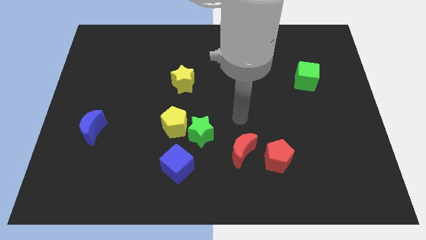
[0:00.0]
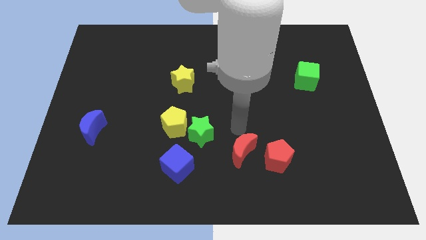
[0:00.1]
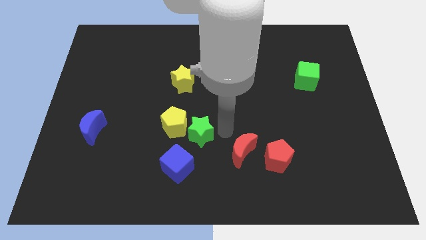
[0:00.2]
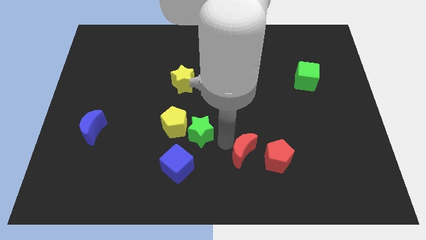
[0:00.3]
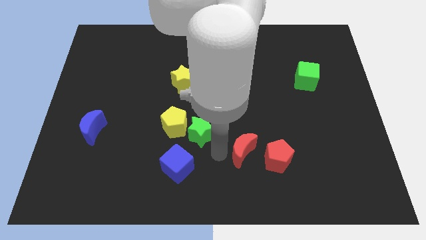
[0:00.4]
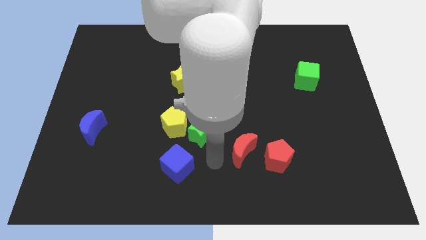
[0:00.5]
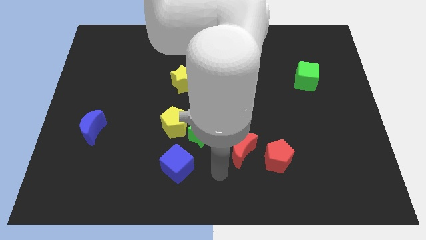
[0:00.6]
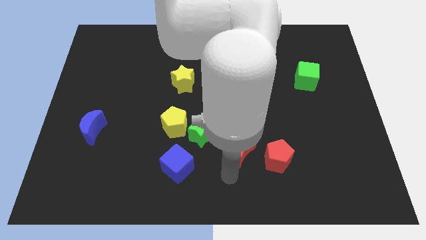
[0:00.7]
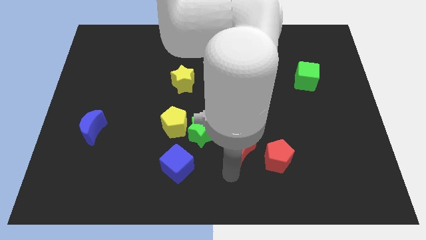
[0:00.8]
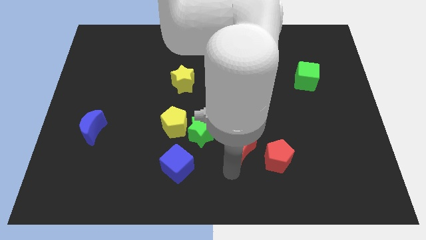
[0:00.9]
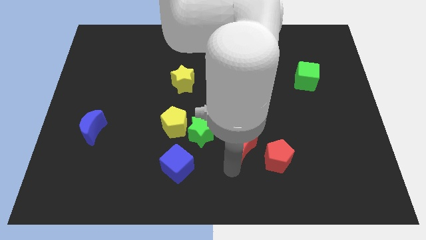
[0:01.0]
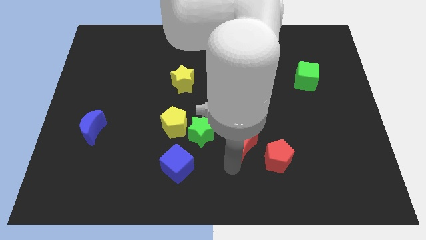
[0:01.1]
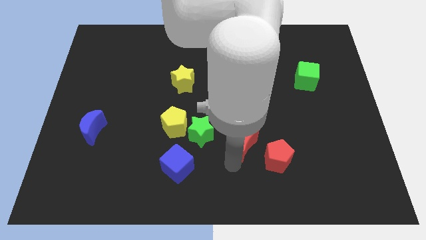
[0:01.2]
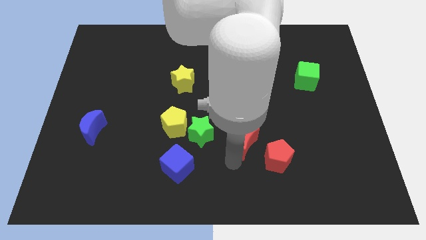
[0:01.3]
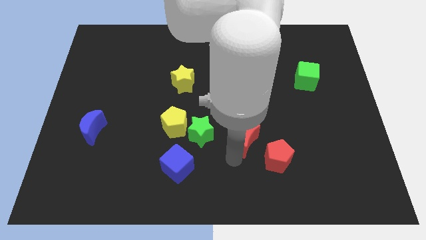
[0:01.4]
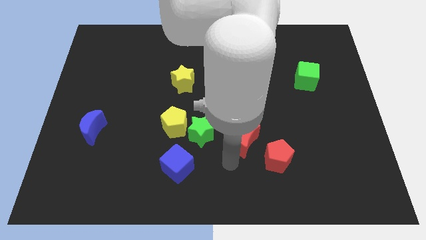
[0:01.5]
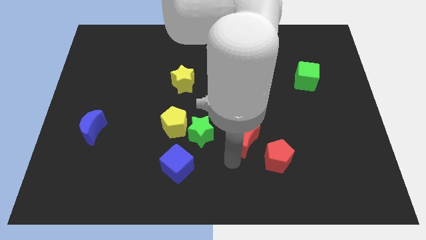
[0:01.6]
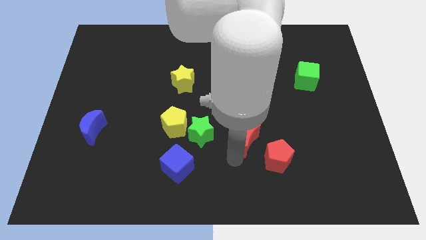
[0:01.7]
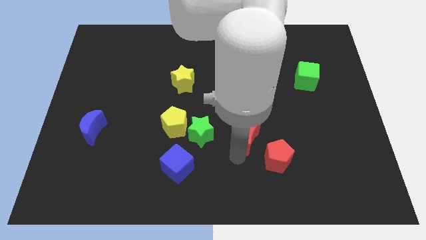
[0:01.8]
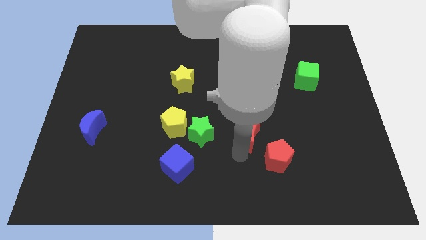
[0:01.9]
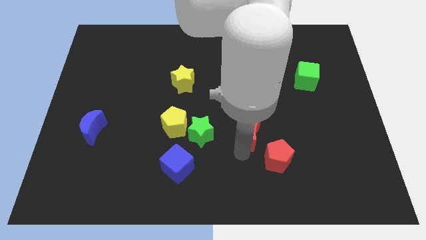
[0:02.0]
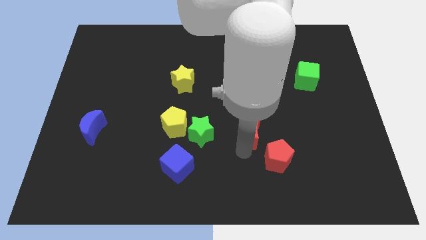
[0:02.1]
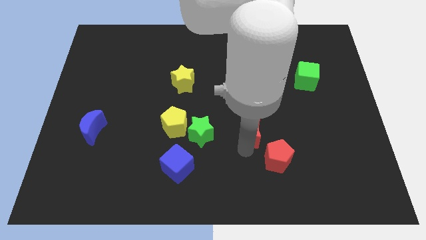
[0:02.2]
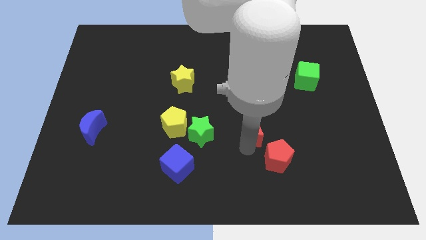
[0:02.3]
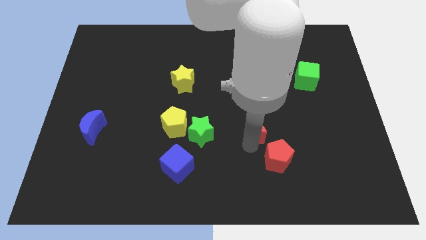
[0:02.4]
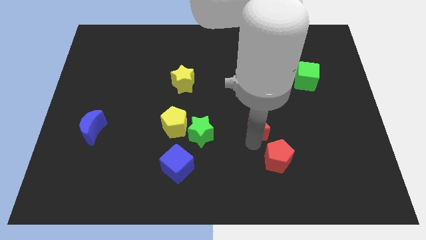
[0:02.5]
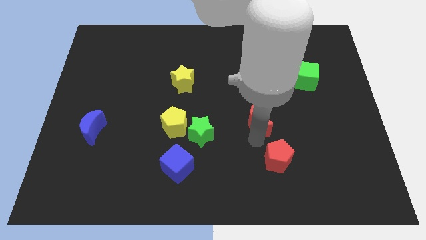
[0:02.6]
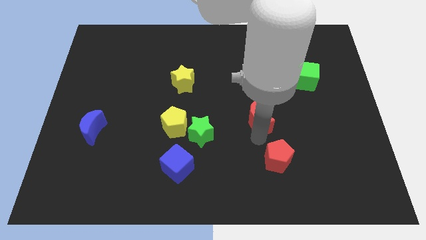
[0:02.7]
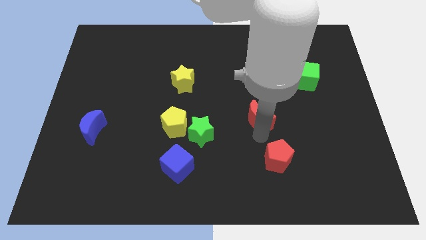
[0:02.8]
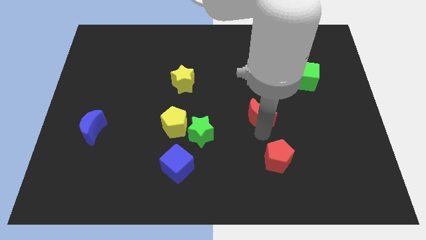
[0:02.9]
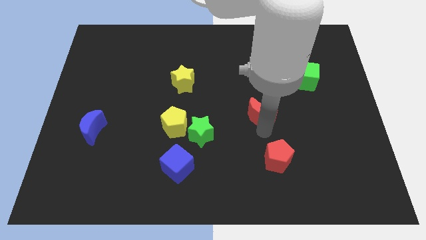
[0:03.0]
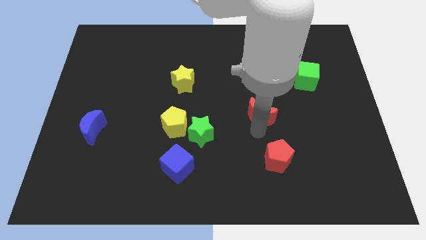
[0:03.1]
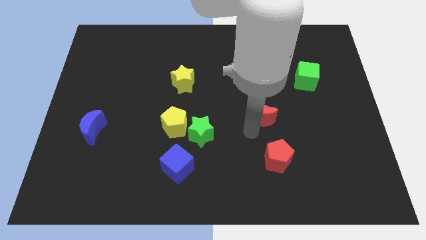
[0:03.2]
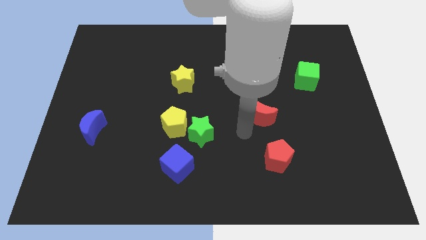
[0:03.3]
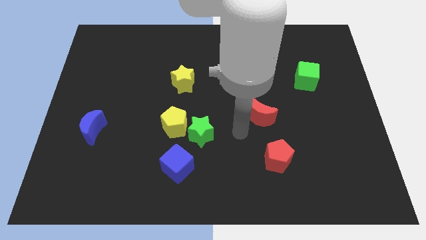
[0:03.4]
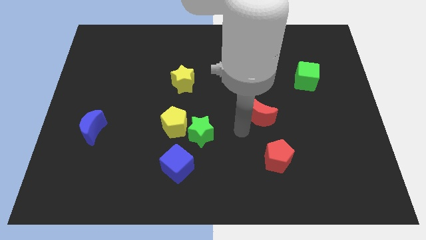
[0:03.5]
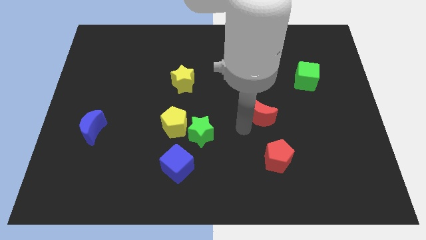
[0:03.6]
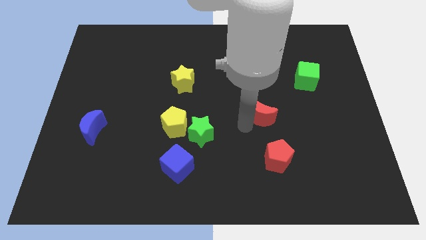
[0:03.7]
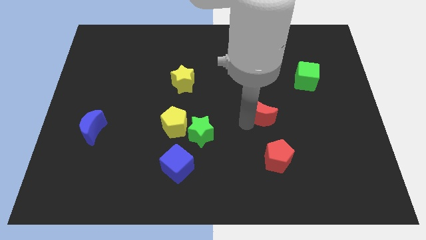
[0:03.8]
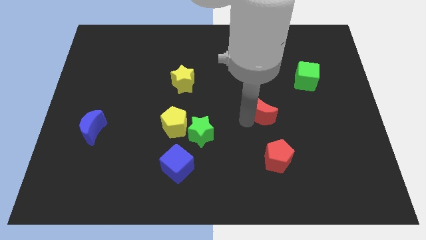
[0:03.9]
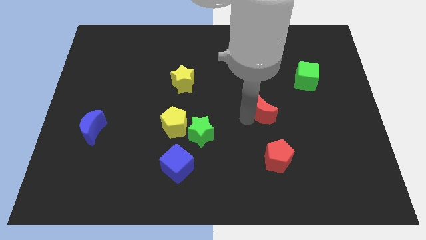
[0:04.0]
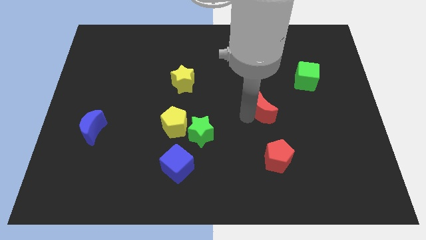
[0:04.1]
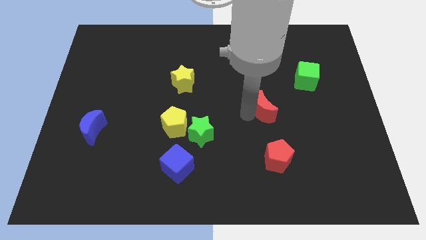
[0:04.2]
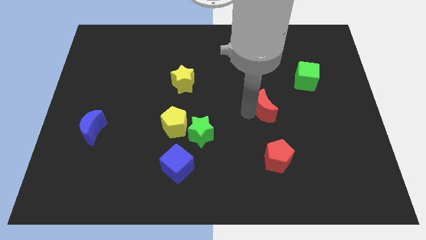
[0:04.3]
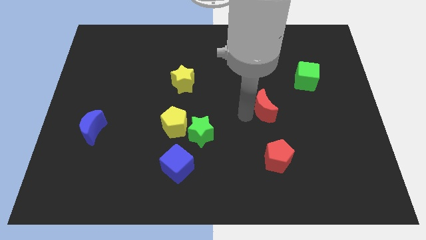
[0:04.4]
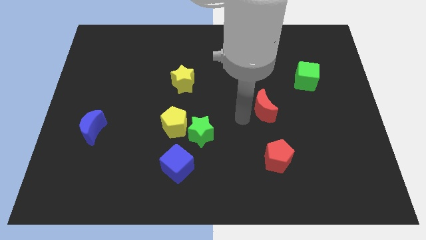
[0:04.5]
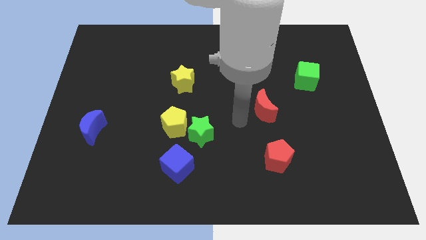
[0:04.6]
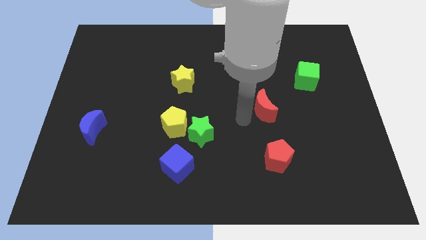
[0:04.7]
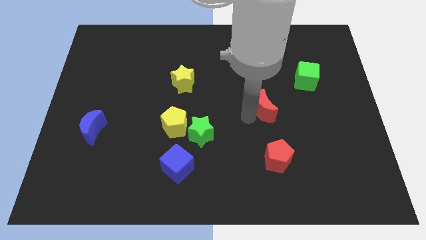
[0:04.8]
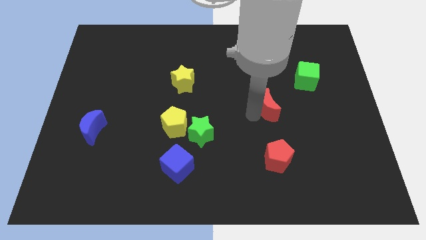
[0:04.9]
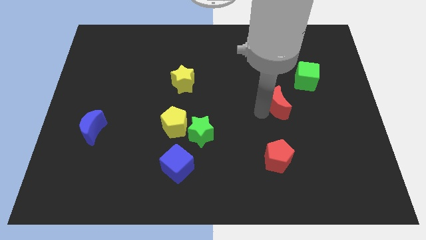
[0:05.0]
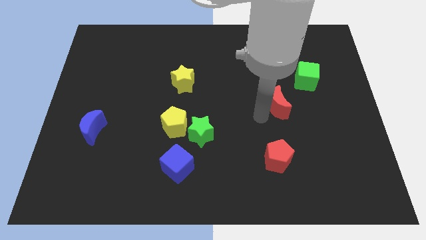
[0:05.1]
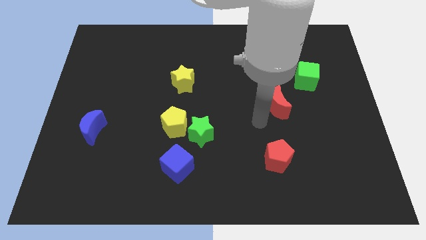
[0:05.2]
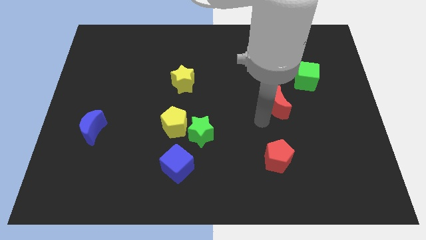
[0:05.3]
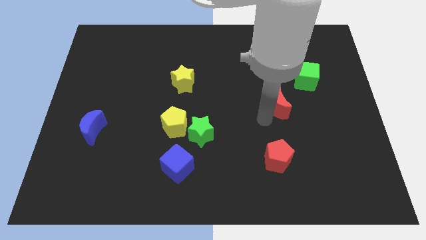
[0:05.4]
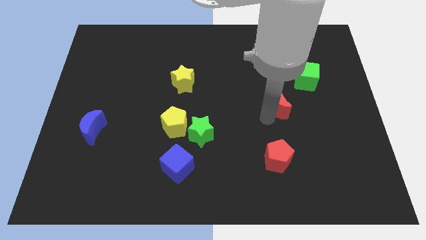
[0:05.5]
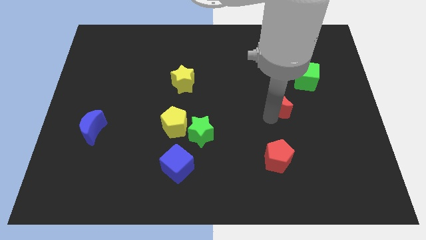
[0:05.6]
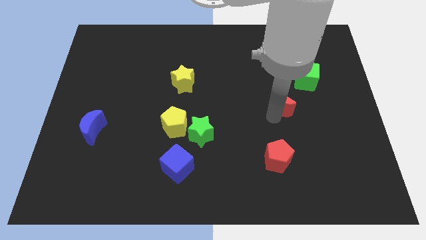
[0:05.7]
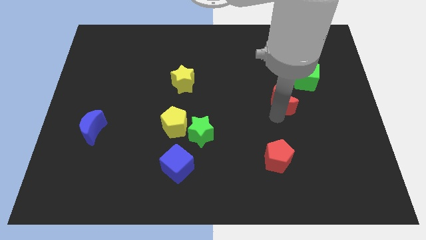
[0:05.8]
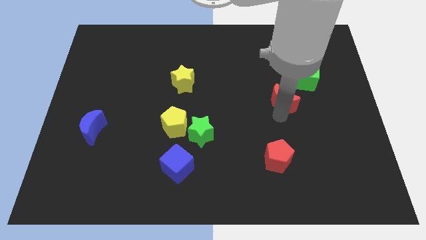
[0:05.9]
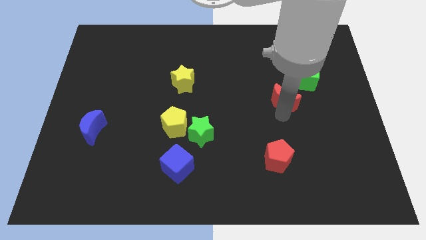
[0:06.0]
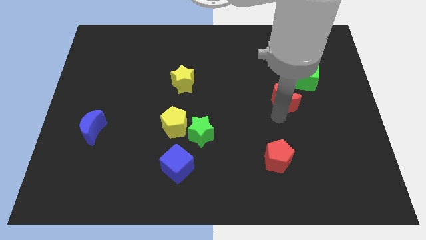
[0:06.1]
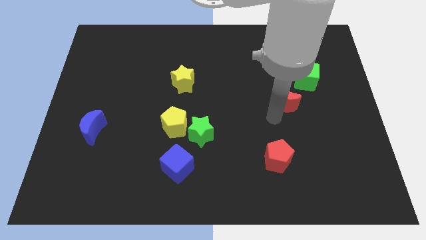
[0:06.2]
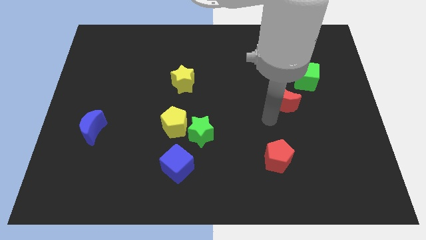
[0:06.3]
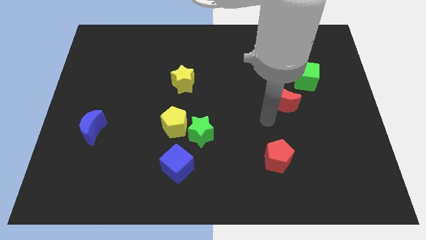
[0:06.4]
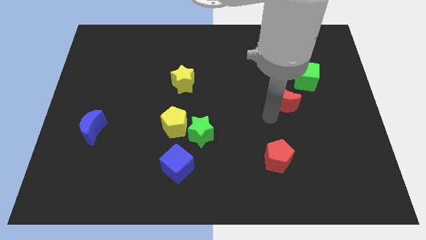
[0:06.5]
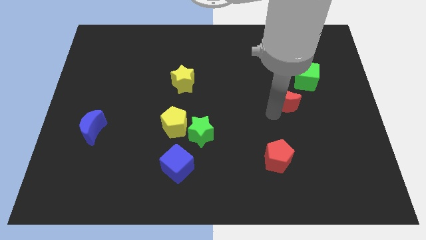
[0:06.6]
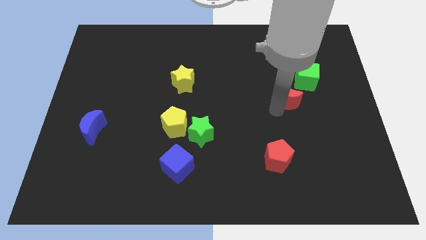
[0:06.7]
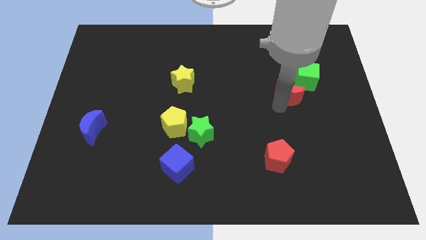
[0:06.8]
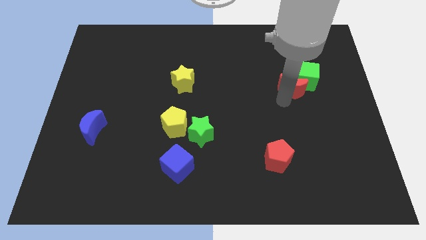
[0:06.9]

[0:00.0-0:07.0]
put the red moon next to the green cube
